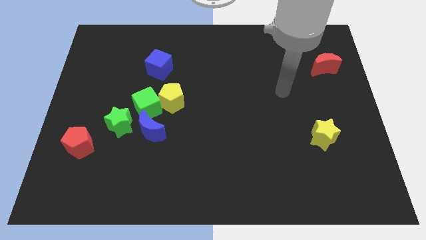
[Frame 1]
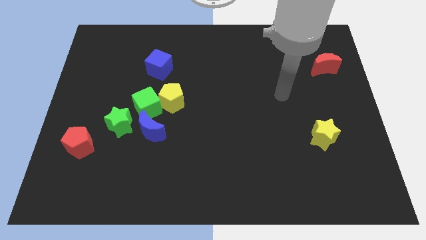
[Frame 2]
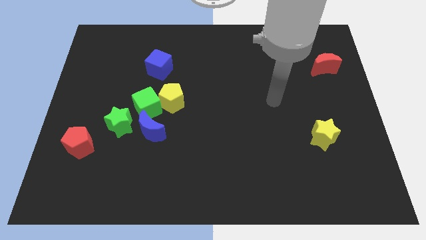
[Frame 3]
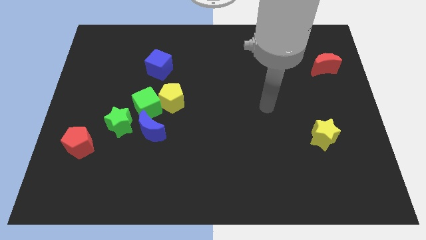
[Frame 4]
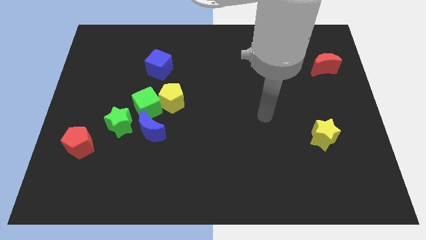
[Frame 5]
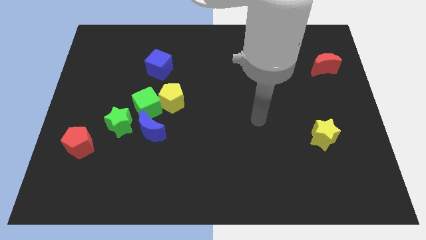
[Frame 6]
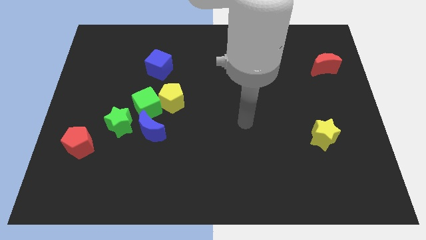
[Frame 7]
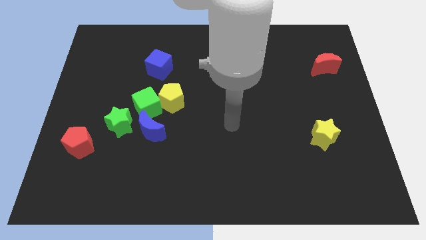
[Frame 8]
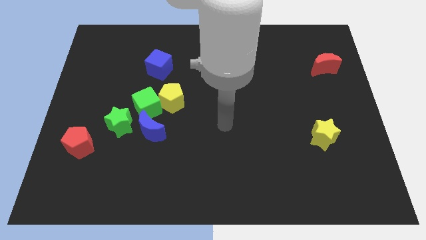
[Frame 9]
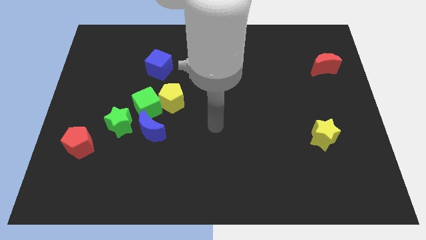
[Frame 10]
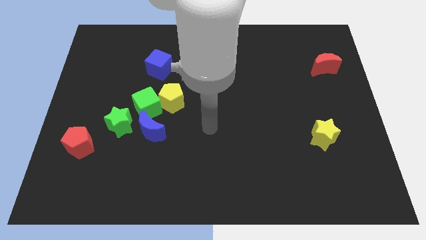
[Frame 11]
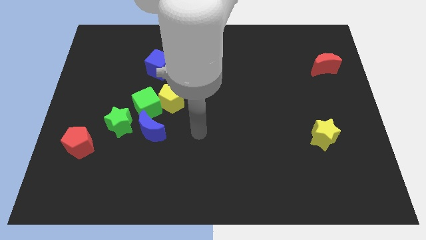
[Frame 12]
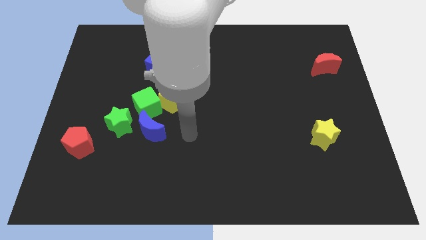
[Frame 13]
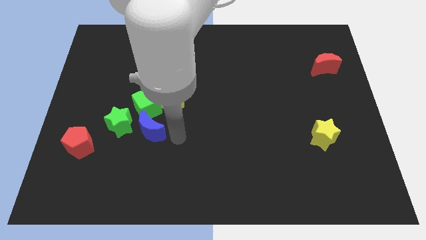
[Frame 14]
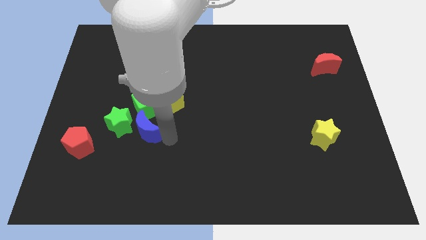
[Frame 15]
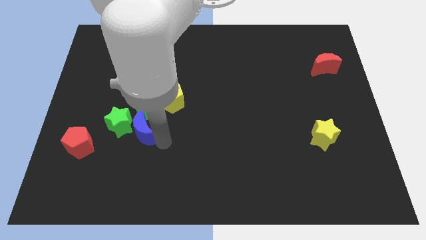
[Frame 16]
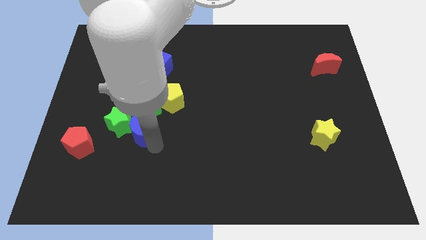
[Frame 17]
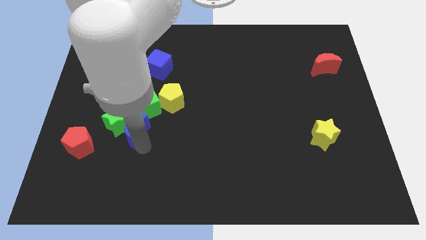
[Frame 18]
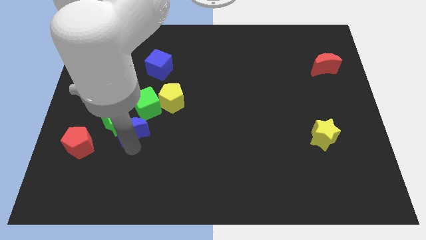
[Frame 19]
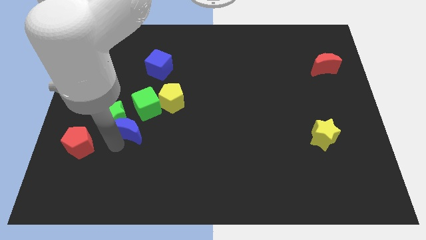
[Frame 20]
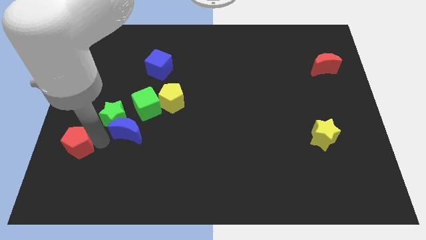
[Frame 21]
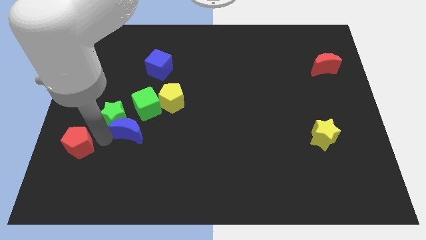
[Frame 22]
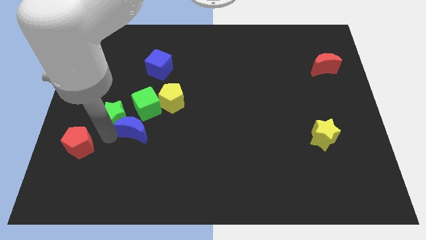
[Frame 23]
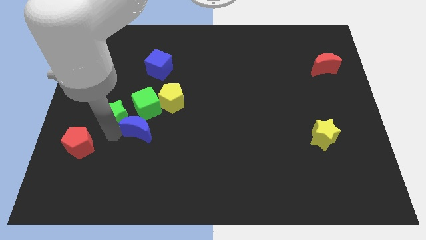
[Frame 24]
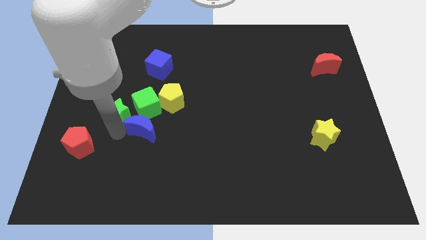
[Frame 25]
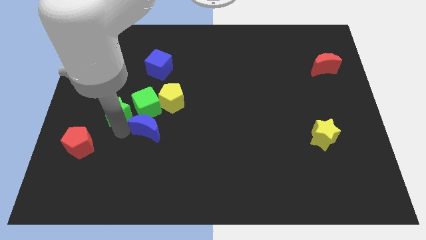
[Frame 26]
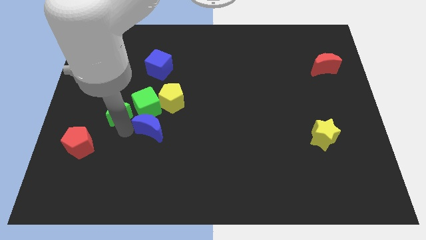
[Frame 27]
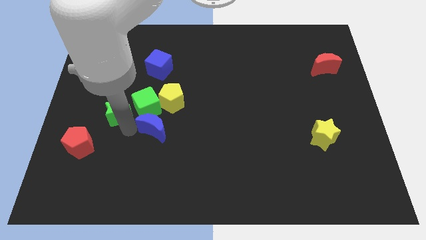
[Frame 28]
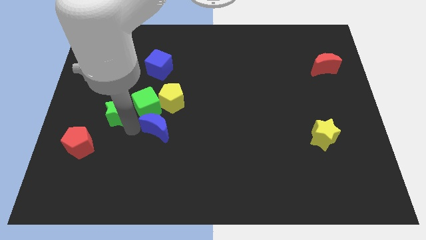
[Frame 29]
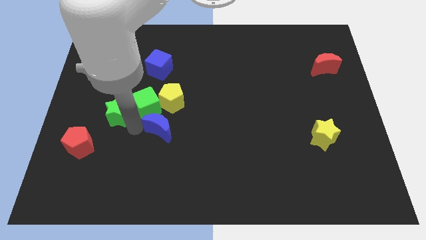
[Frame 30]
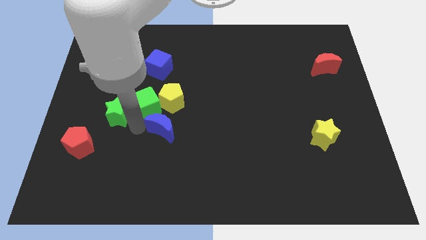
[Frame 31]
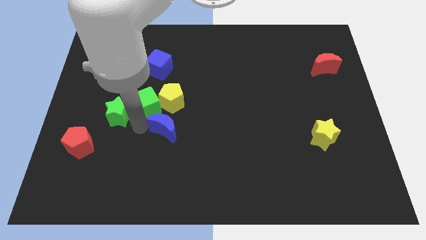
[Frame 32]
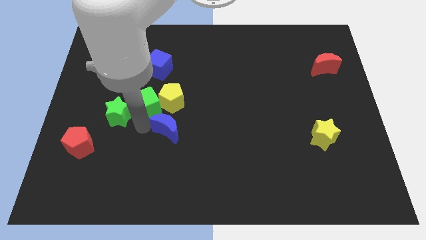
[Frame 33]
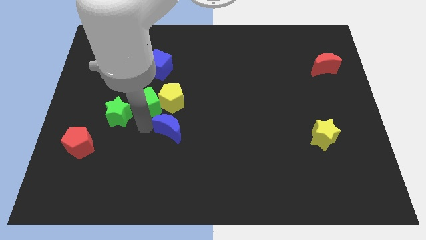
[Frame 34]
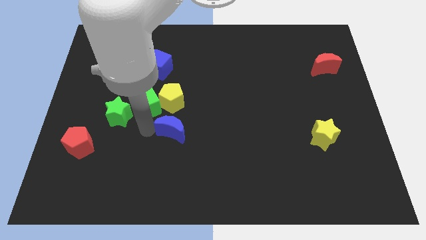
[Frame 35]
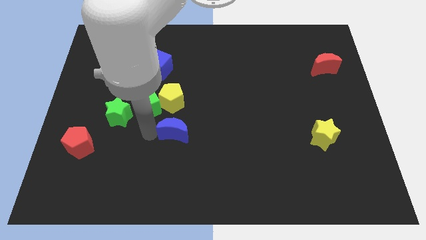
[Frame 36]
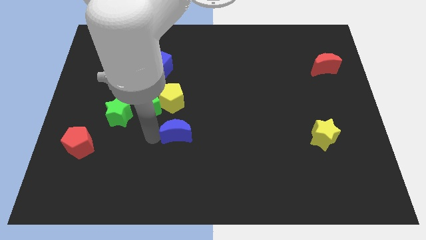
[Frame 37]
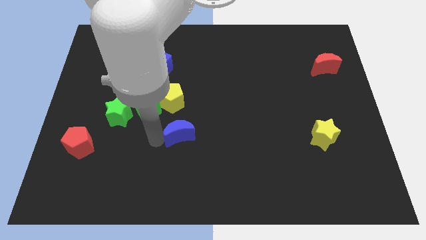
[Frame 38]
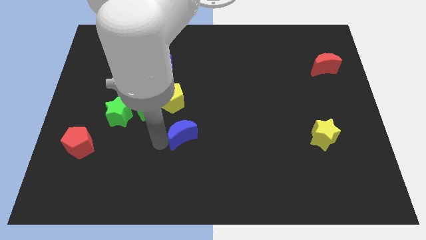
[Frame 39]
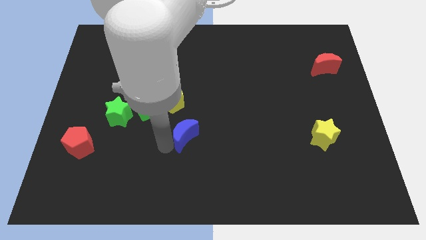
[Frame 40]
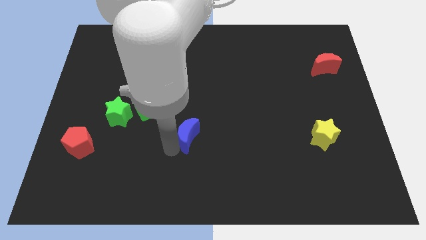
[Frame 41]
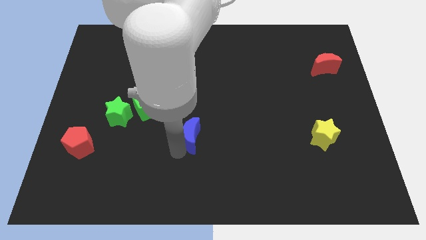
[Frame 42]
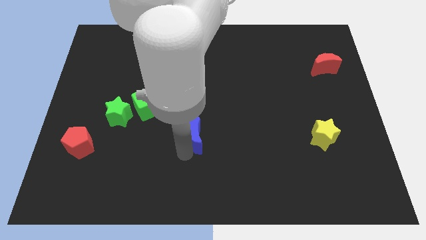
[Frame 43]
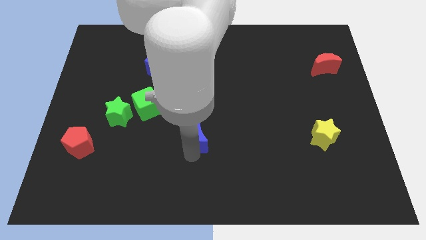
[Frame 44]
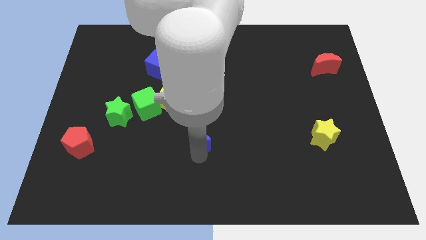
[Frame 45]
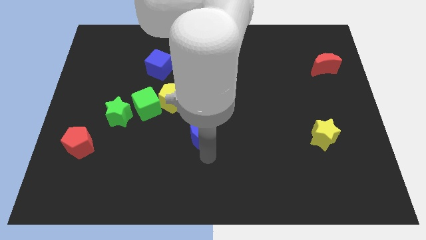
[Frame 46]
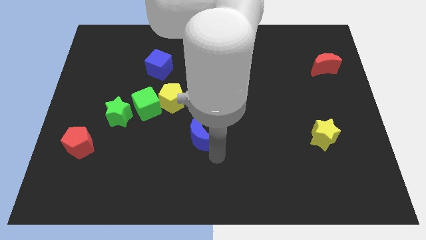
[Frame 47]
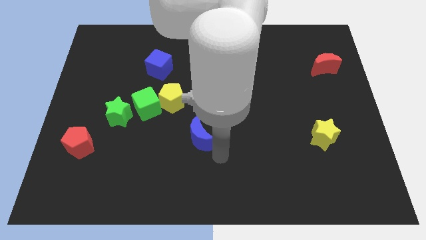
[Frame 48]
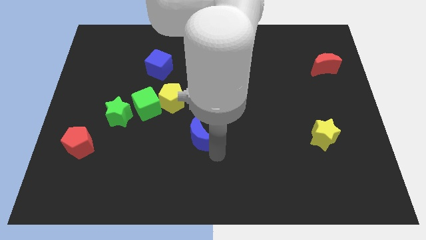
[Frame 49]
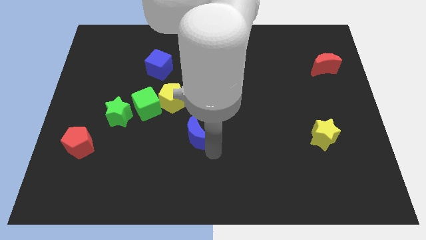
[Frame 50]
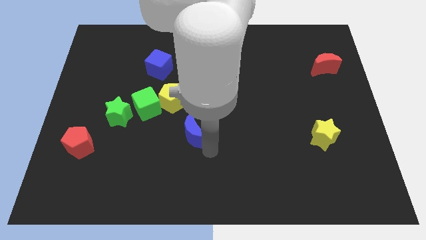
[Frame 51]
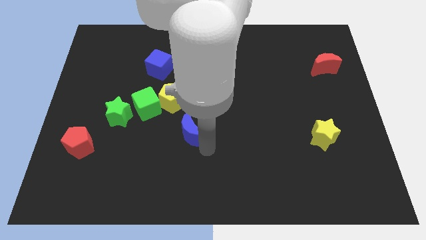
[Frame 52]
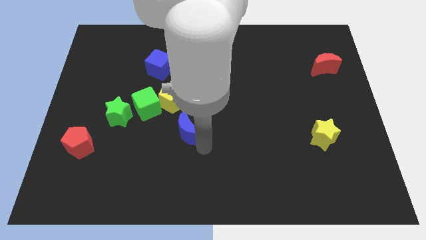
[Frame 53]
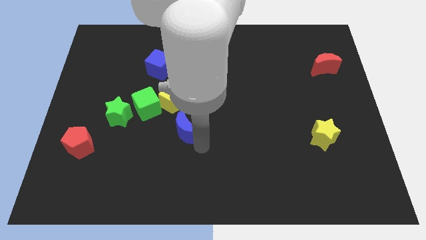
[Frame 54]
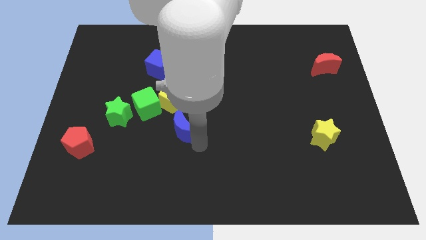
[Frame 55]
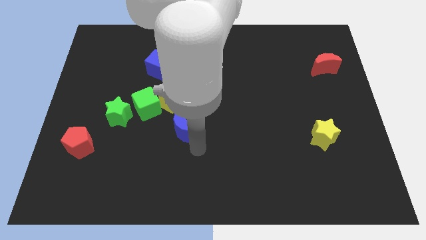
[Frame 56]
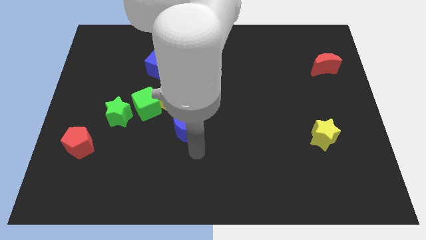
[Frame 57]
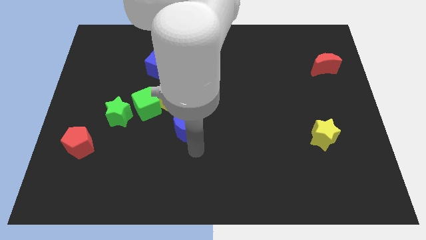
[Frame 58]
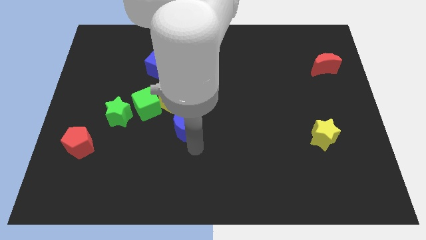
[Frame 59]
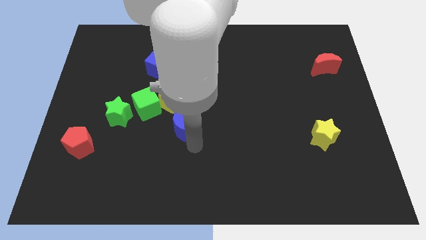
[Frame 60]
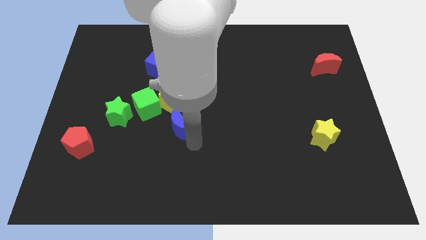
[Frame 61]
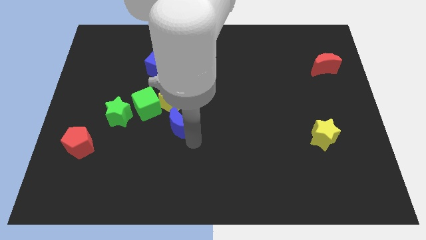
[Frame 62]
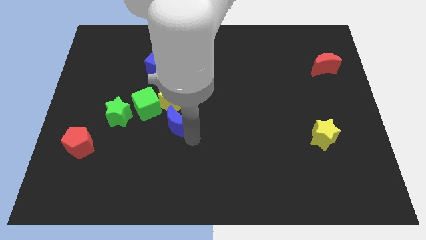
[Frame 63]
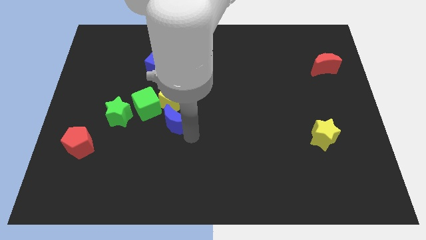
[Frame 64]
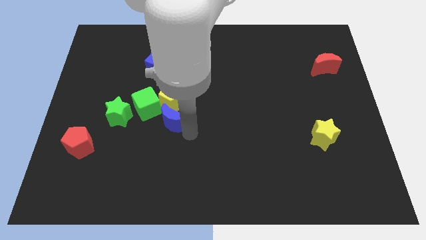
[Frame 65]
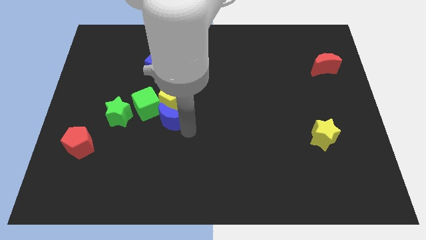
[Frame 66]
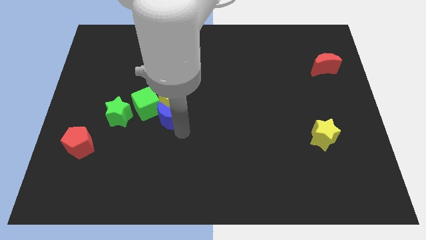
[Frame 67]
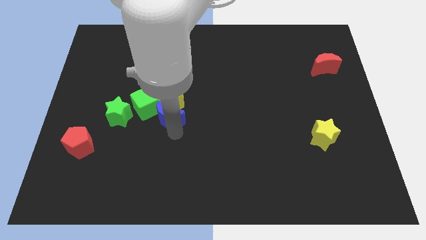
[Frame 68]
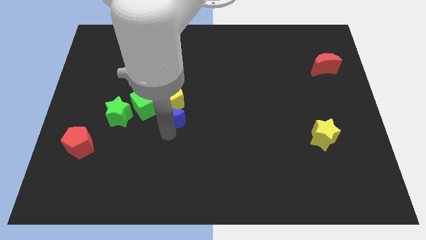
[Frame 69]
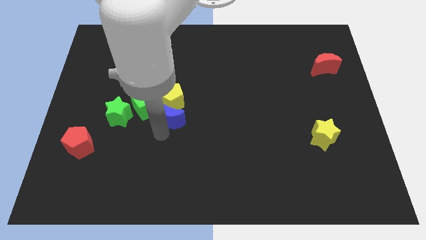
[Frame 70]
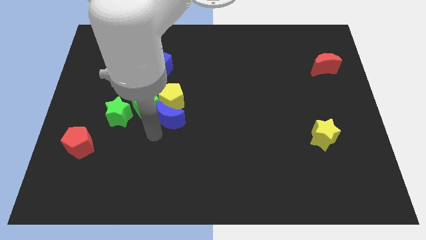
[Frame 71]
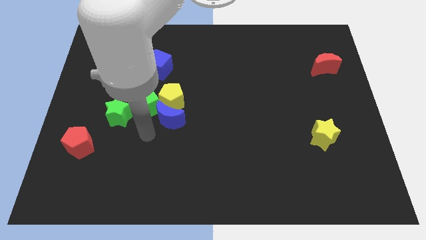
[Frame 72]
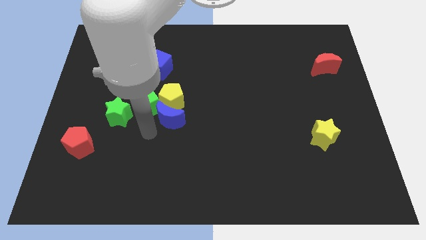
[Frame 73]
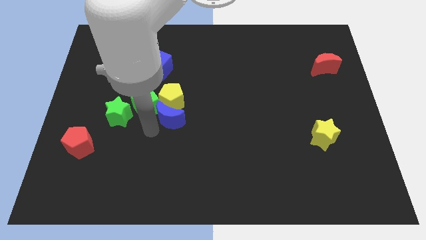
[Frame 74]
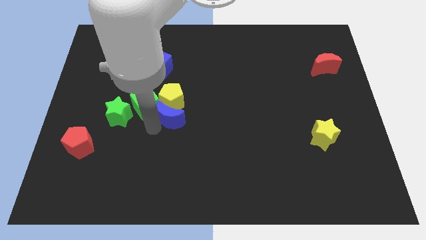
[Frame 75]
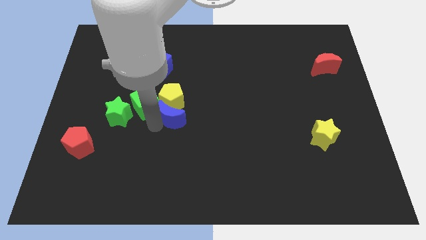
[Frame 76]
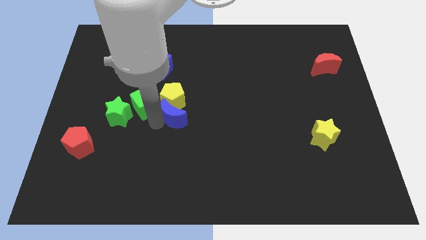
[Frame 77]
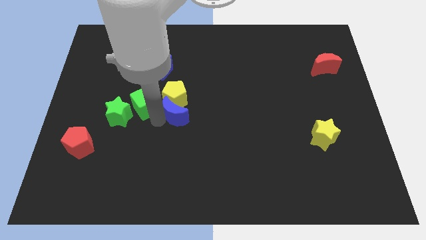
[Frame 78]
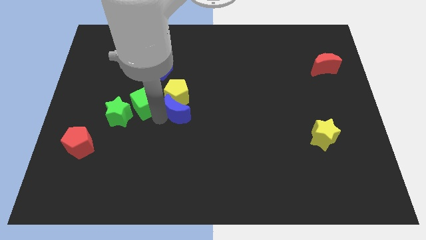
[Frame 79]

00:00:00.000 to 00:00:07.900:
slightly slide the blue moon upwards and right diagonally

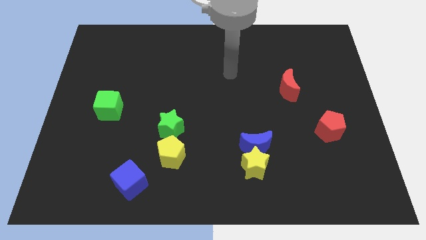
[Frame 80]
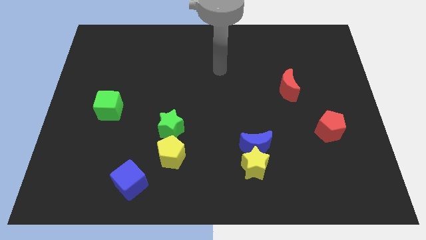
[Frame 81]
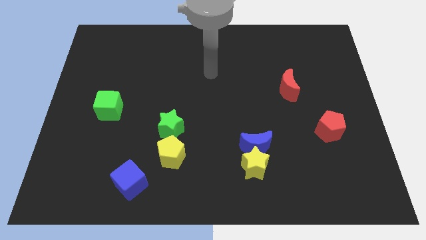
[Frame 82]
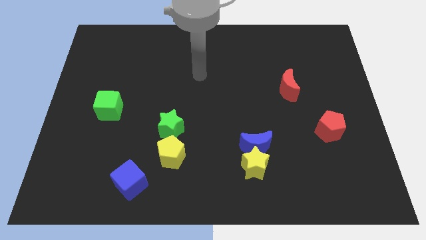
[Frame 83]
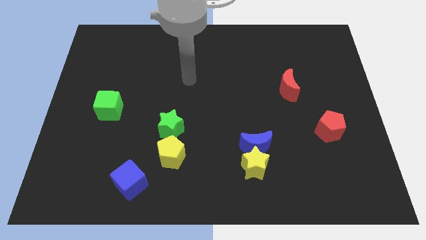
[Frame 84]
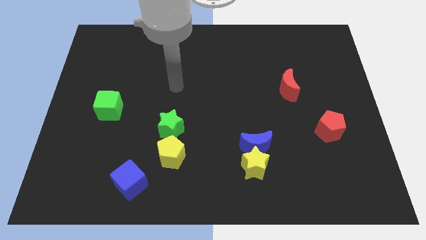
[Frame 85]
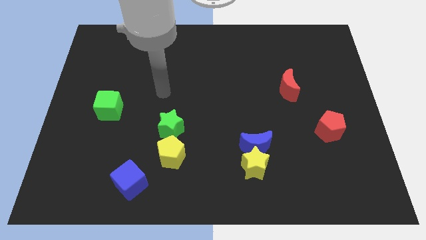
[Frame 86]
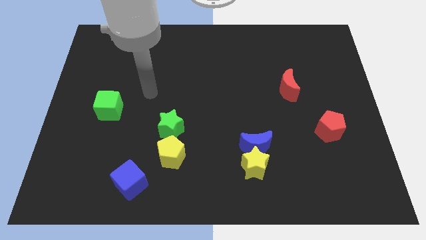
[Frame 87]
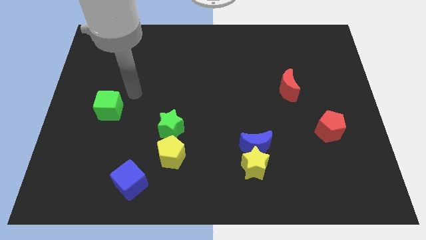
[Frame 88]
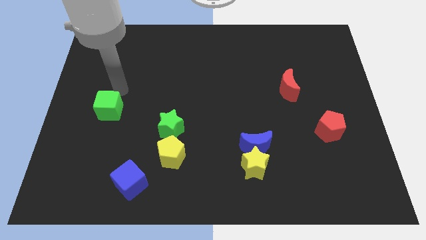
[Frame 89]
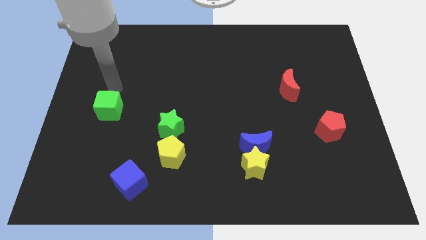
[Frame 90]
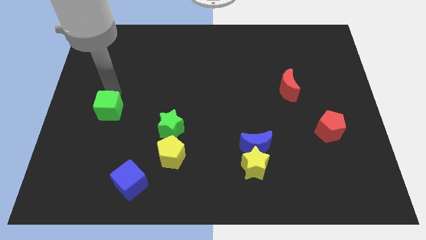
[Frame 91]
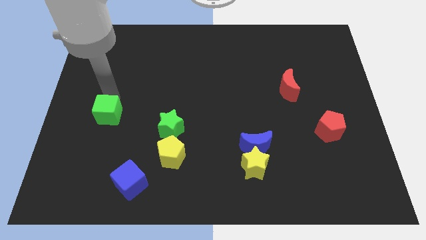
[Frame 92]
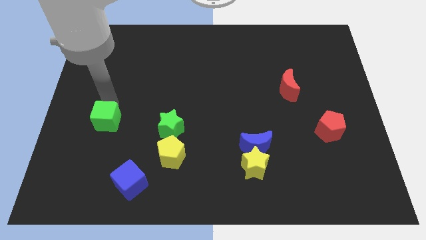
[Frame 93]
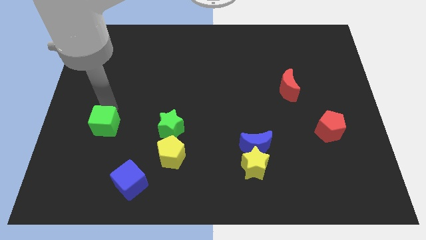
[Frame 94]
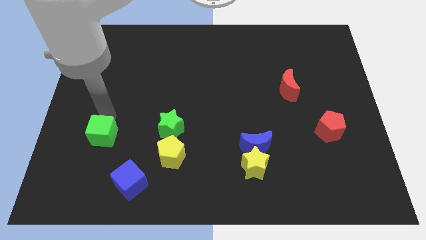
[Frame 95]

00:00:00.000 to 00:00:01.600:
push the green cube somewhat downwards
